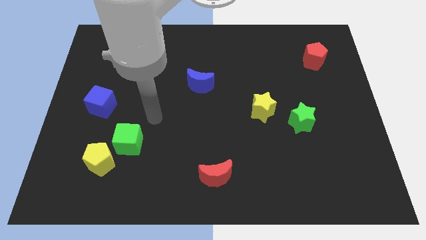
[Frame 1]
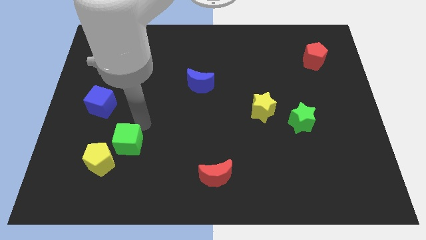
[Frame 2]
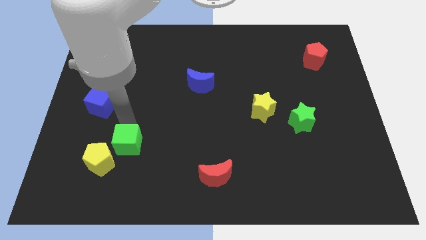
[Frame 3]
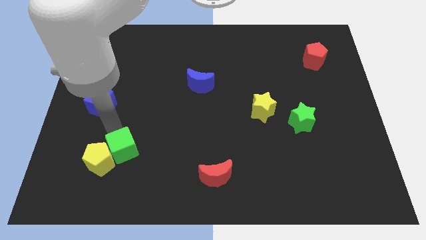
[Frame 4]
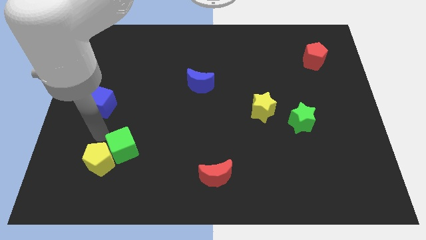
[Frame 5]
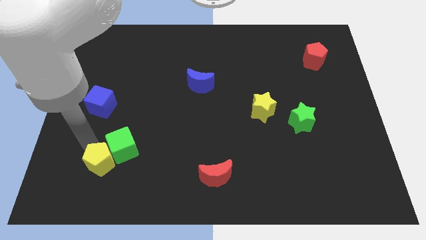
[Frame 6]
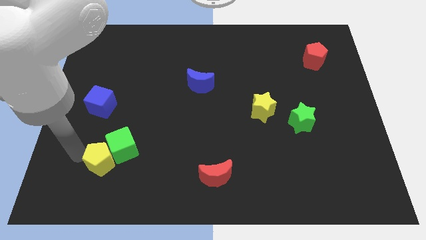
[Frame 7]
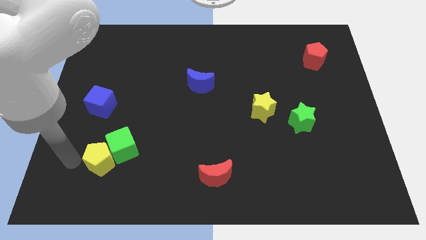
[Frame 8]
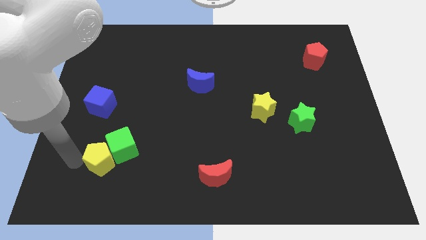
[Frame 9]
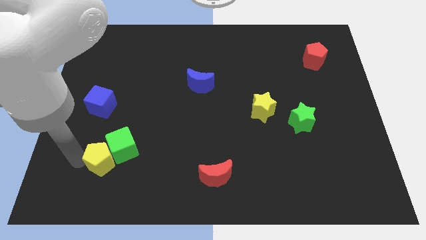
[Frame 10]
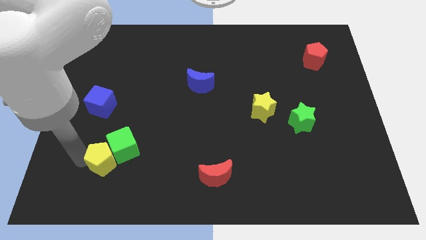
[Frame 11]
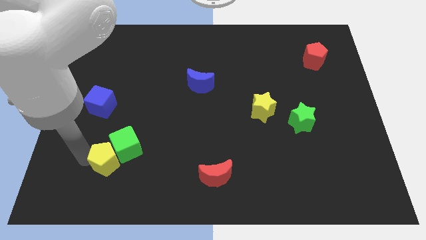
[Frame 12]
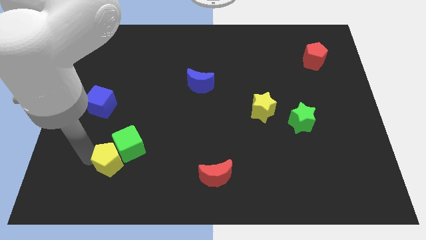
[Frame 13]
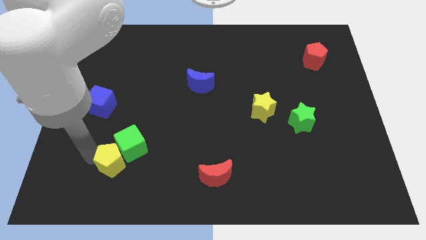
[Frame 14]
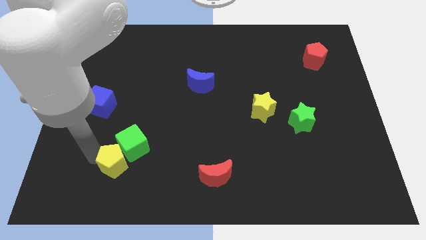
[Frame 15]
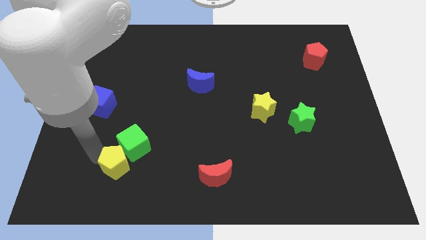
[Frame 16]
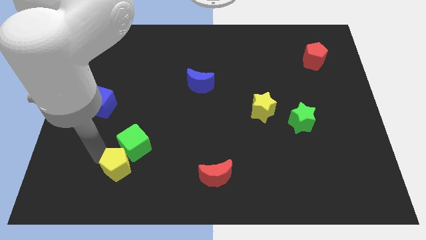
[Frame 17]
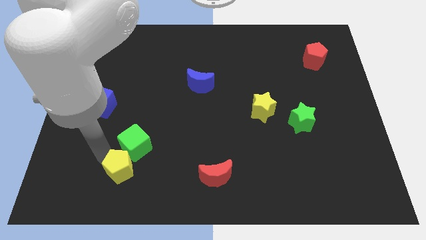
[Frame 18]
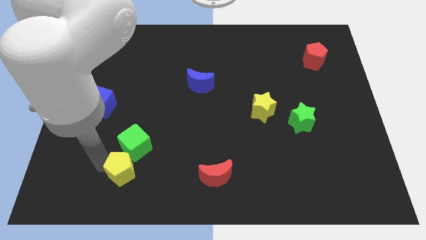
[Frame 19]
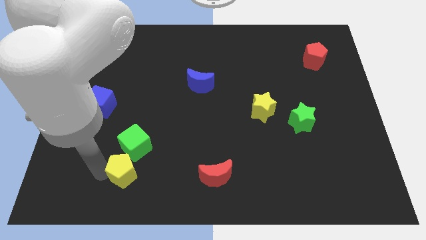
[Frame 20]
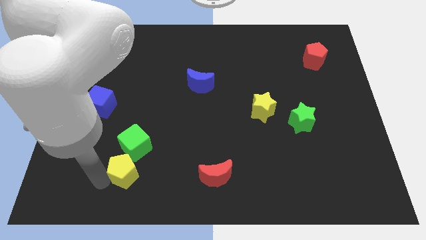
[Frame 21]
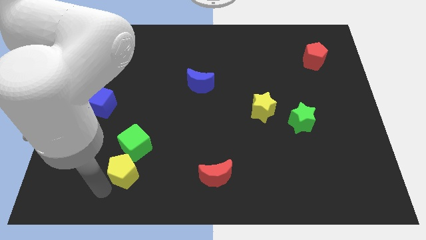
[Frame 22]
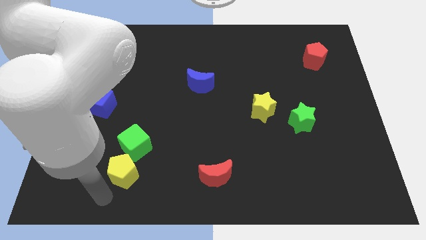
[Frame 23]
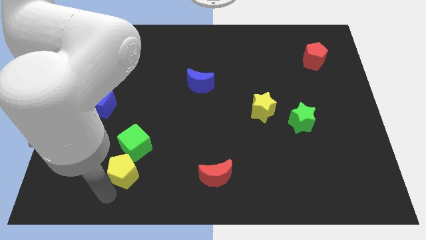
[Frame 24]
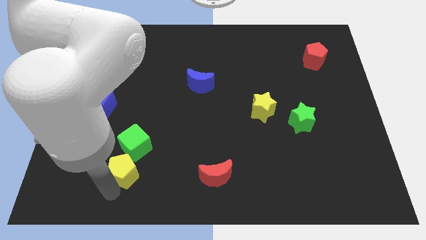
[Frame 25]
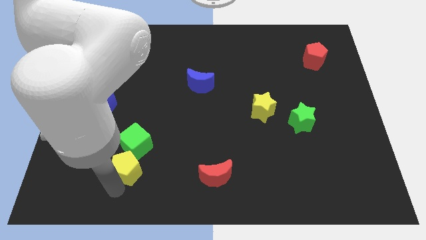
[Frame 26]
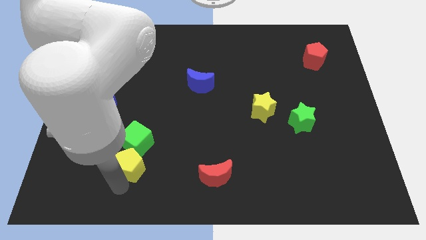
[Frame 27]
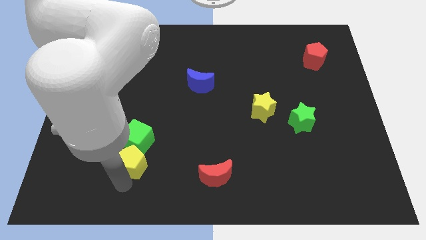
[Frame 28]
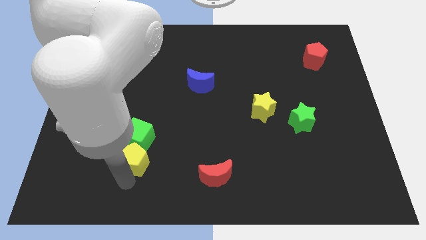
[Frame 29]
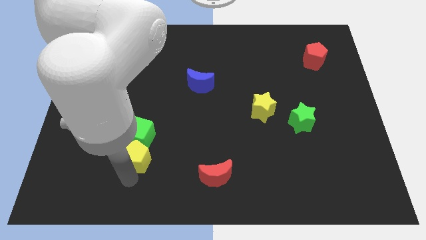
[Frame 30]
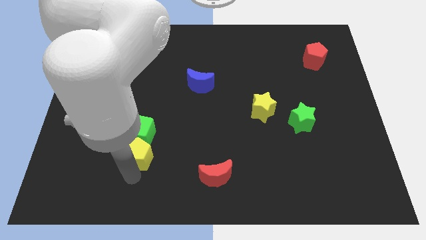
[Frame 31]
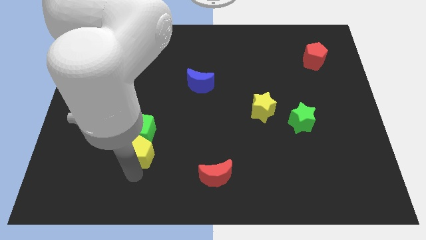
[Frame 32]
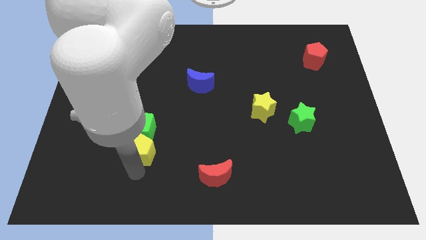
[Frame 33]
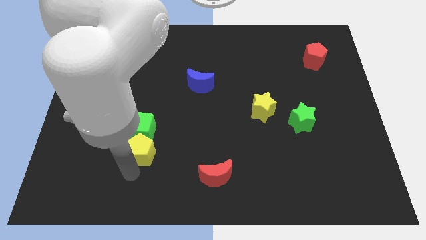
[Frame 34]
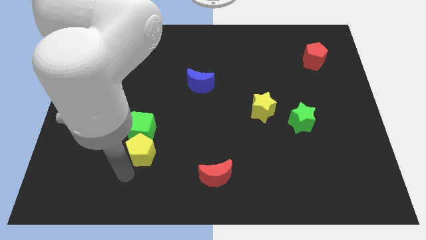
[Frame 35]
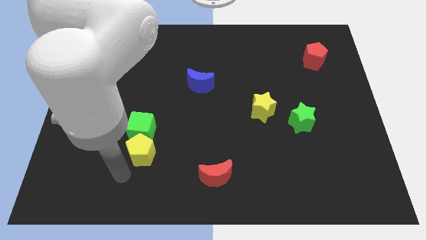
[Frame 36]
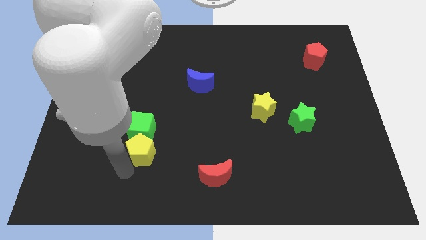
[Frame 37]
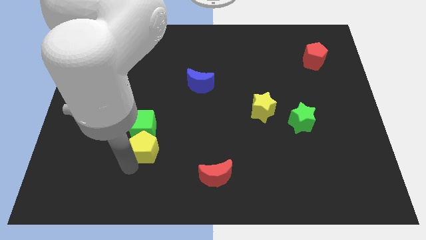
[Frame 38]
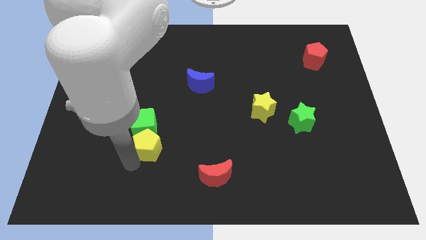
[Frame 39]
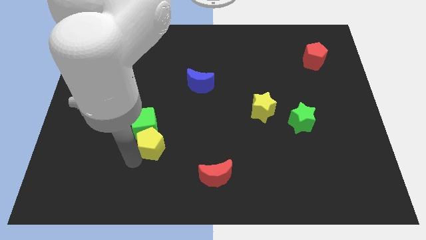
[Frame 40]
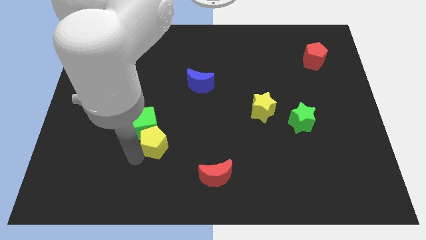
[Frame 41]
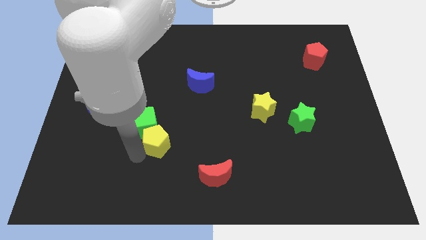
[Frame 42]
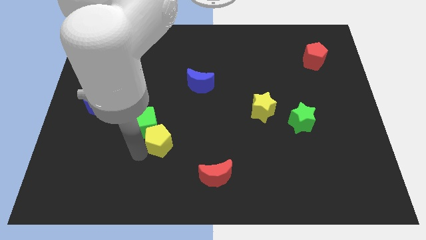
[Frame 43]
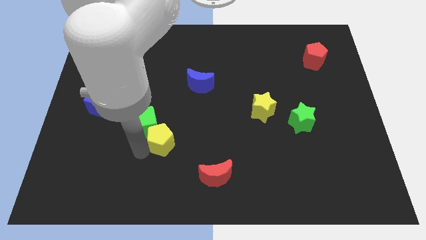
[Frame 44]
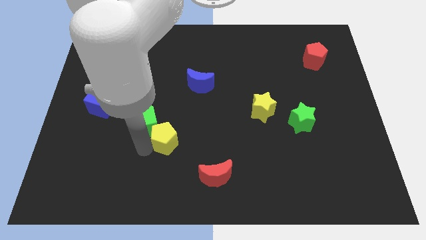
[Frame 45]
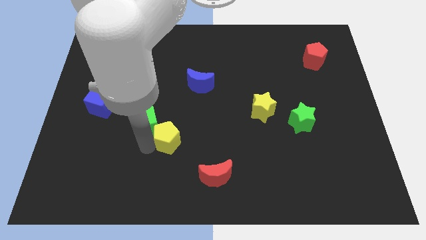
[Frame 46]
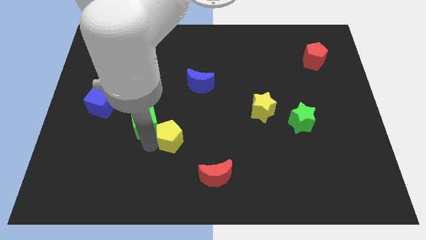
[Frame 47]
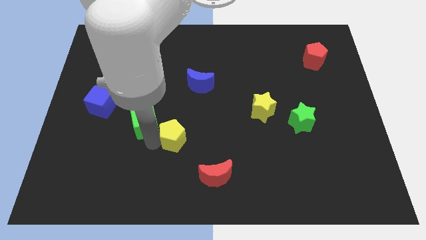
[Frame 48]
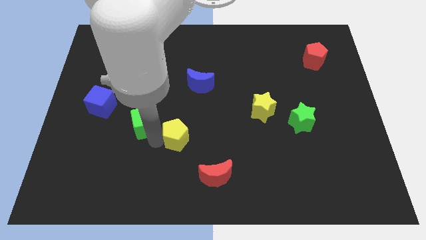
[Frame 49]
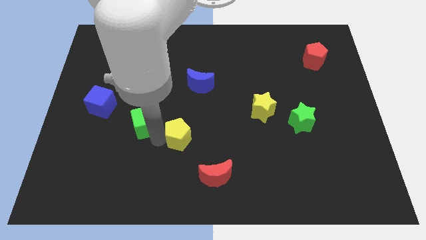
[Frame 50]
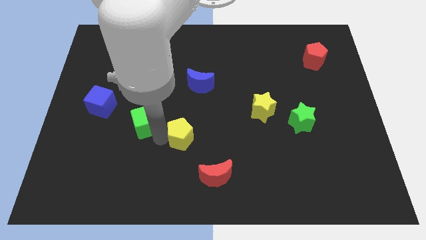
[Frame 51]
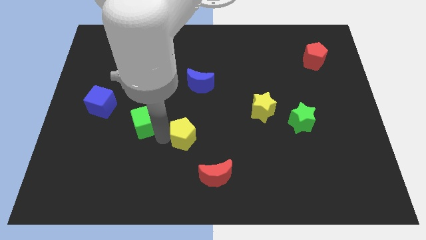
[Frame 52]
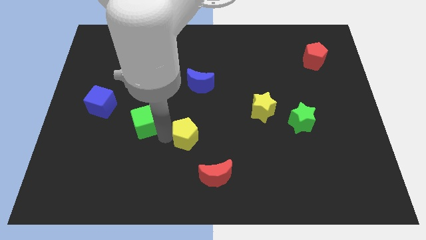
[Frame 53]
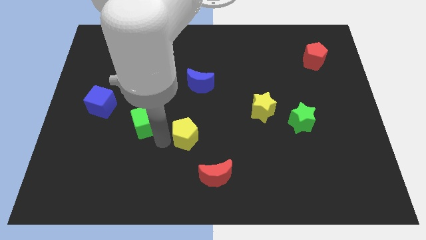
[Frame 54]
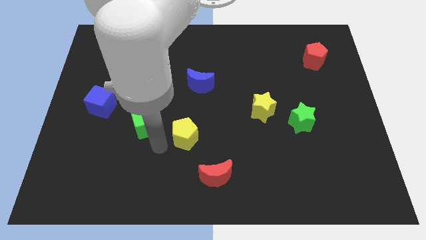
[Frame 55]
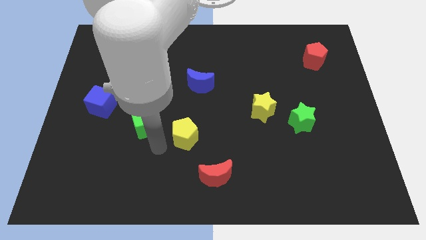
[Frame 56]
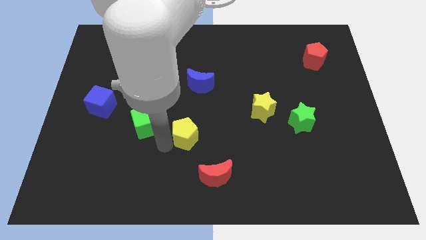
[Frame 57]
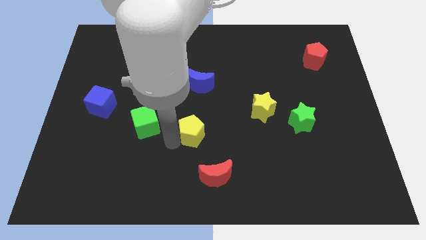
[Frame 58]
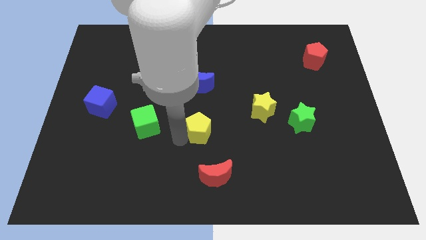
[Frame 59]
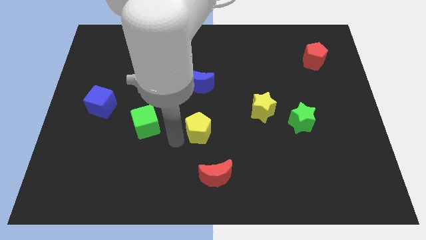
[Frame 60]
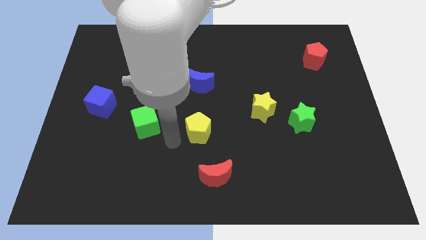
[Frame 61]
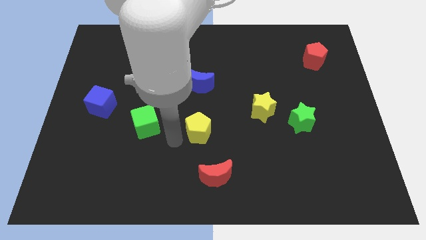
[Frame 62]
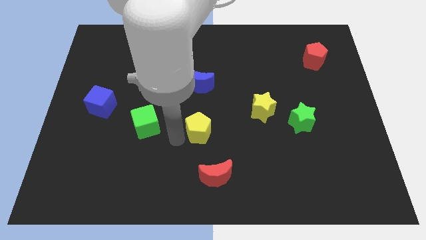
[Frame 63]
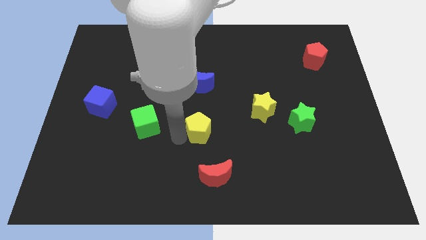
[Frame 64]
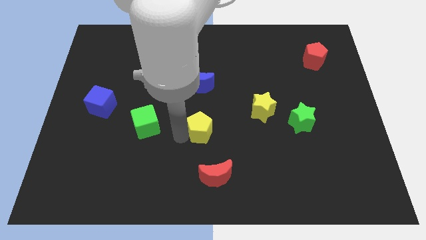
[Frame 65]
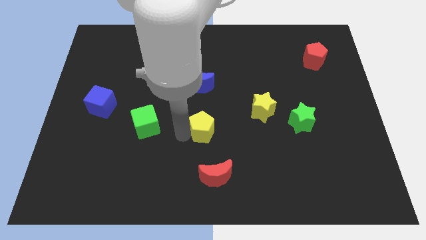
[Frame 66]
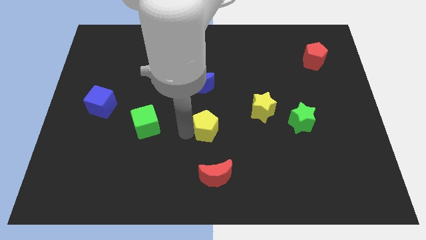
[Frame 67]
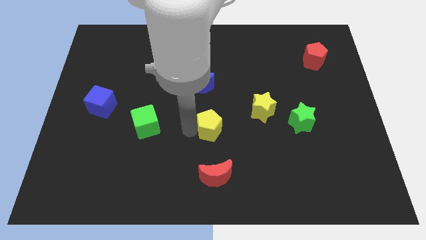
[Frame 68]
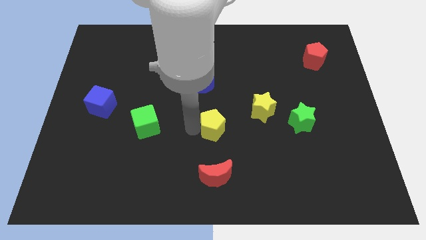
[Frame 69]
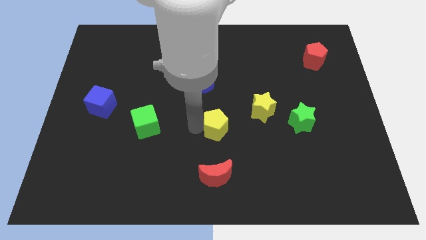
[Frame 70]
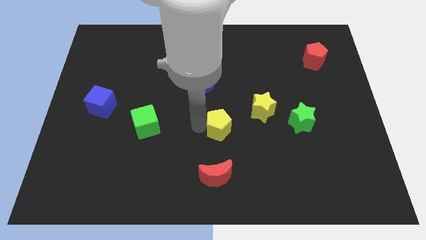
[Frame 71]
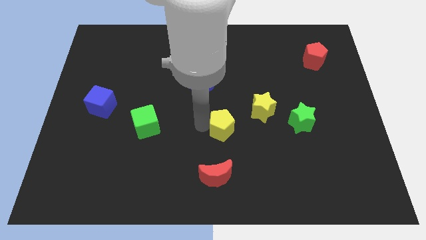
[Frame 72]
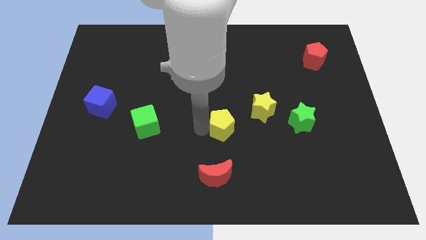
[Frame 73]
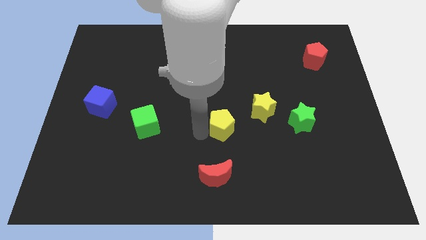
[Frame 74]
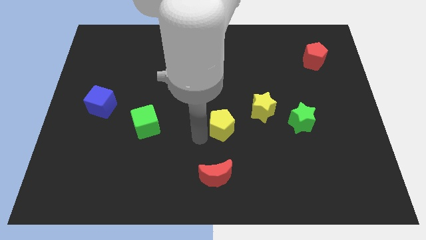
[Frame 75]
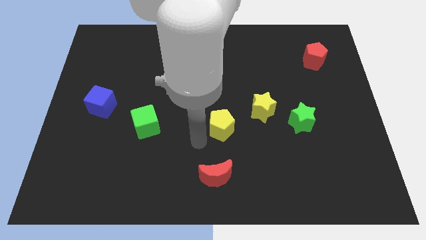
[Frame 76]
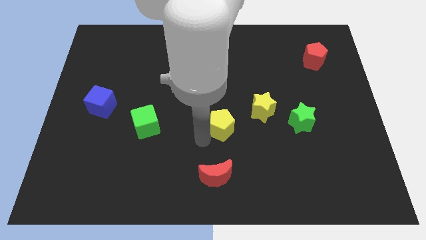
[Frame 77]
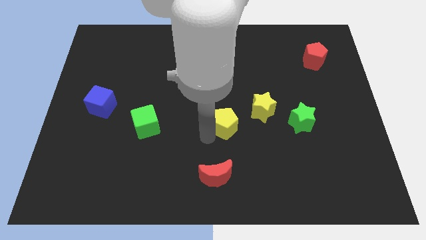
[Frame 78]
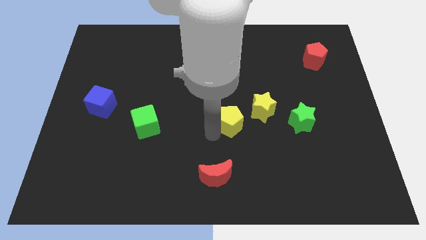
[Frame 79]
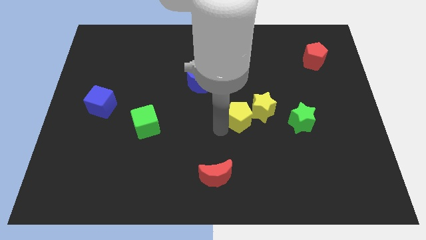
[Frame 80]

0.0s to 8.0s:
put the yellow pentagon to the yellow star
